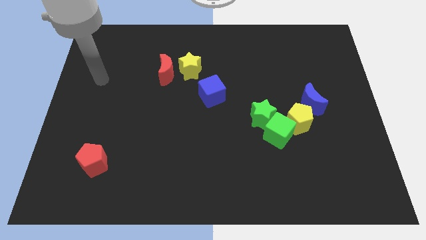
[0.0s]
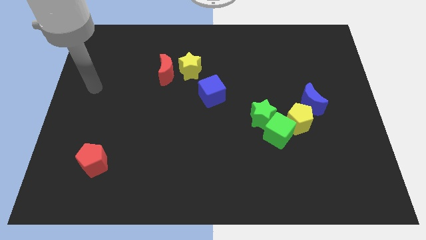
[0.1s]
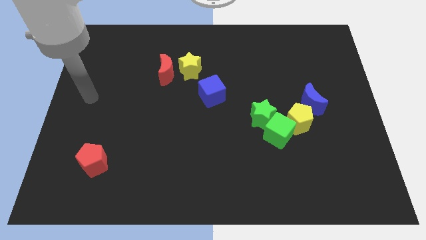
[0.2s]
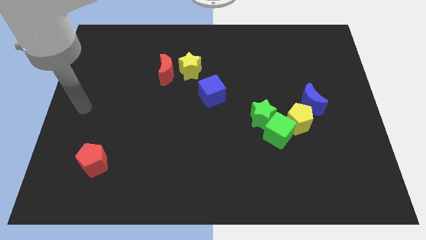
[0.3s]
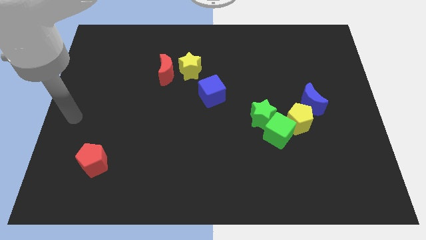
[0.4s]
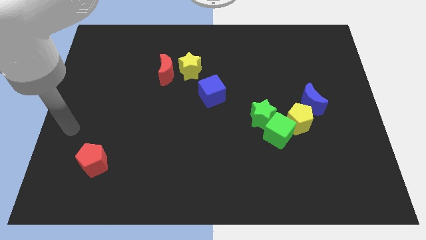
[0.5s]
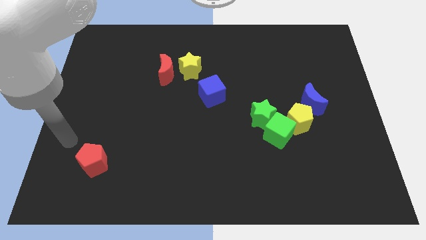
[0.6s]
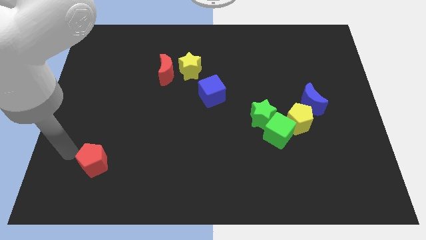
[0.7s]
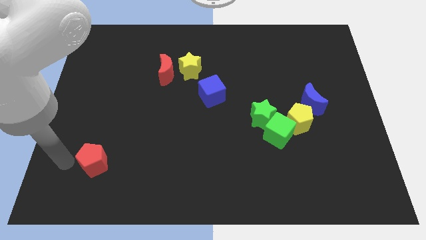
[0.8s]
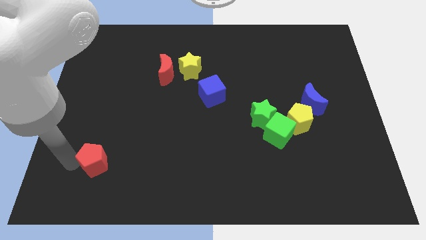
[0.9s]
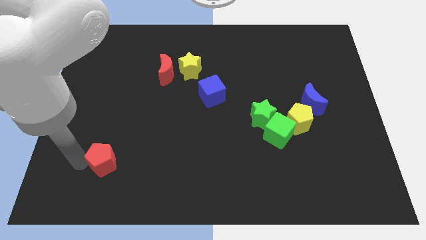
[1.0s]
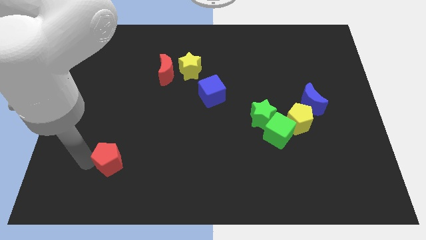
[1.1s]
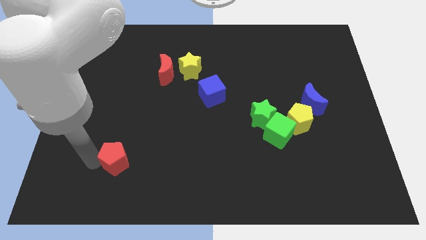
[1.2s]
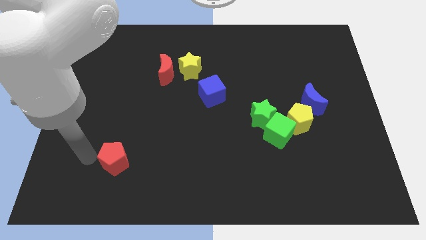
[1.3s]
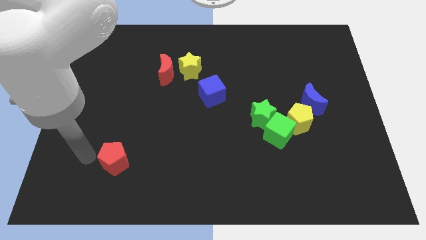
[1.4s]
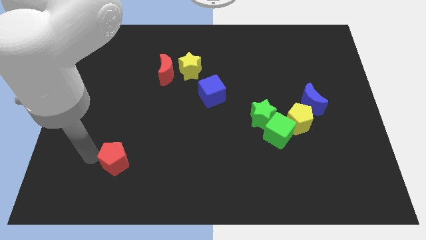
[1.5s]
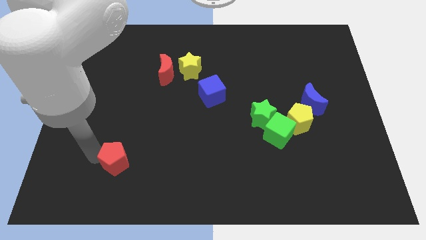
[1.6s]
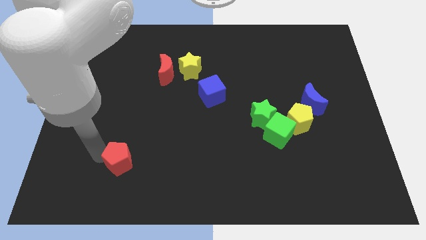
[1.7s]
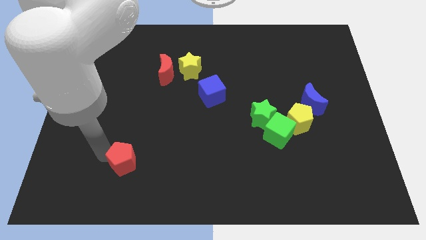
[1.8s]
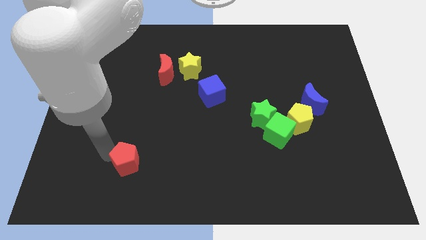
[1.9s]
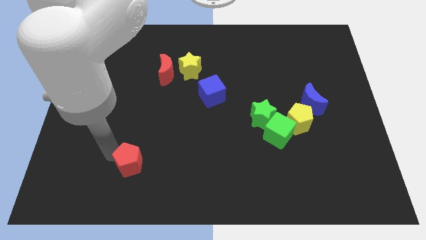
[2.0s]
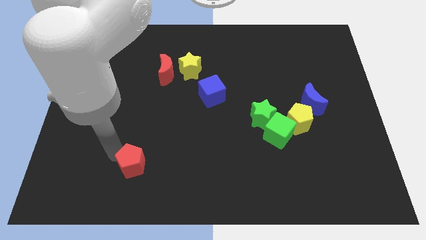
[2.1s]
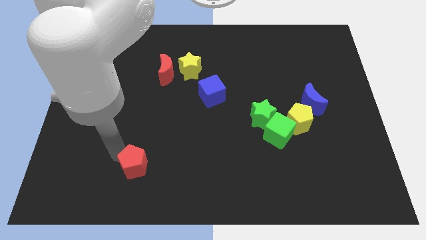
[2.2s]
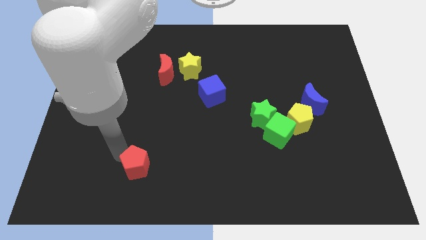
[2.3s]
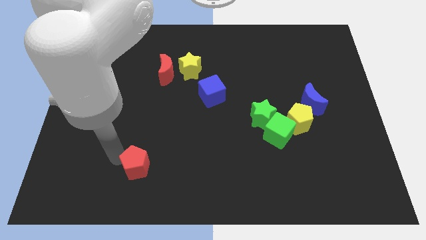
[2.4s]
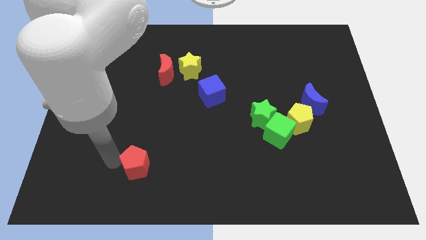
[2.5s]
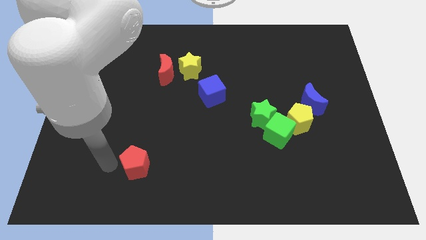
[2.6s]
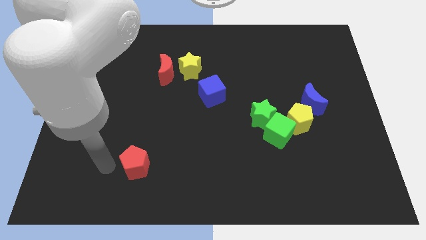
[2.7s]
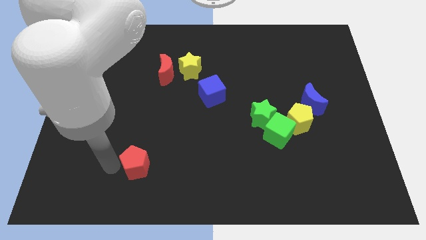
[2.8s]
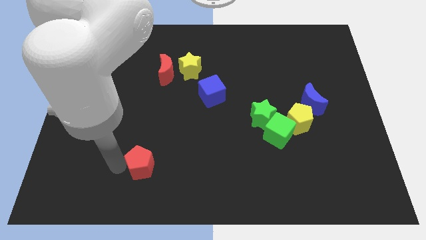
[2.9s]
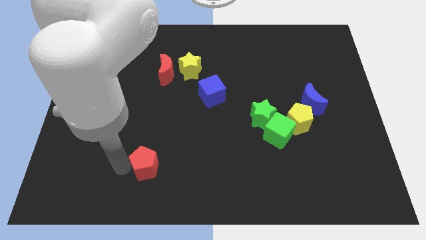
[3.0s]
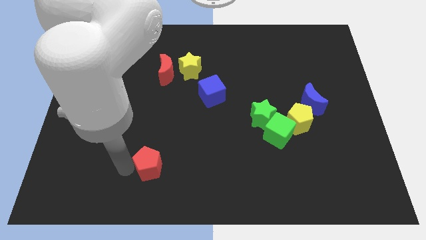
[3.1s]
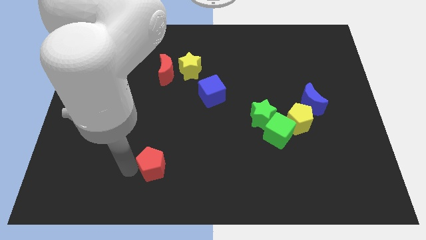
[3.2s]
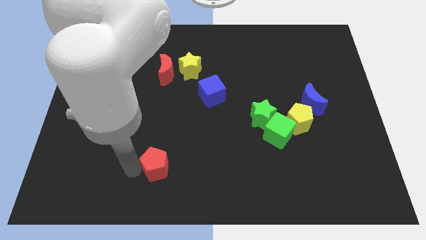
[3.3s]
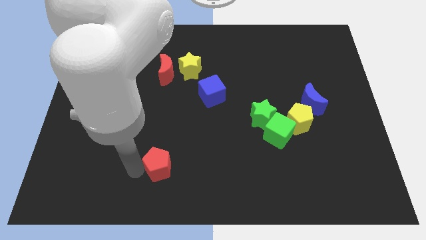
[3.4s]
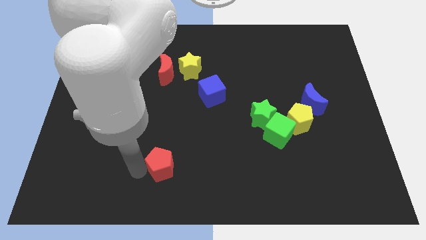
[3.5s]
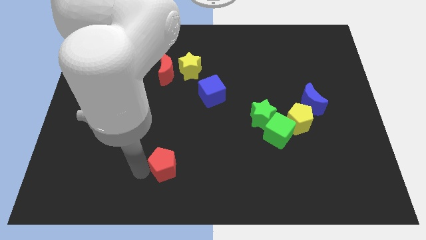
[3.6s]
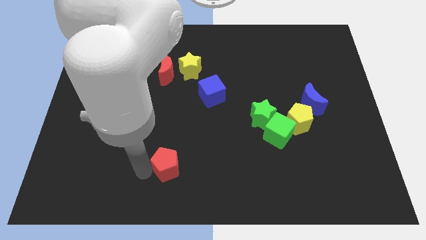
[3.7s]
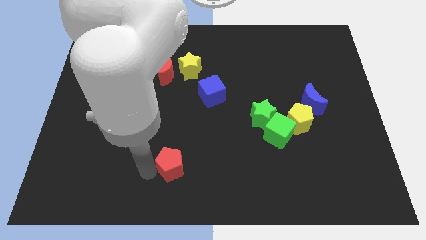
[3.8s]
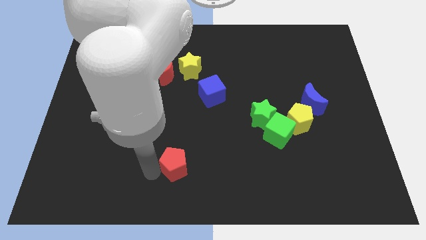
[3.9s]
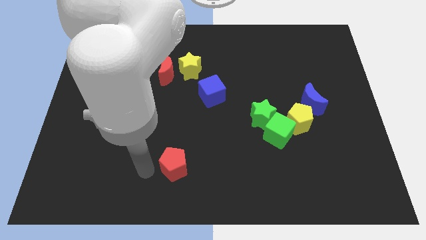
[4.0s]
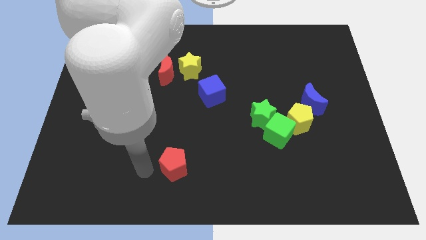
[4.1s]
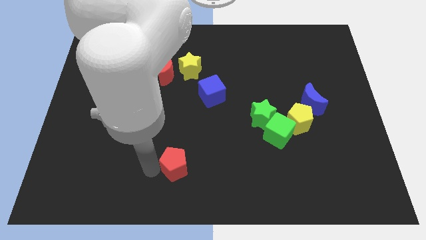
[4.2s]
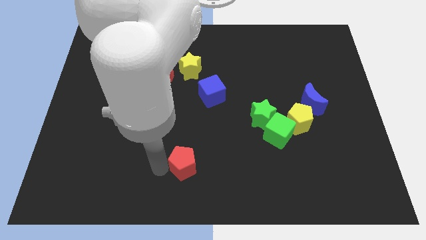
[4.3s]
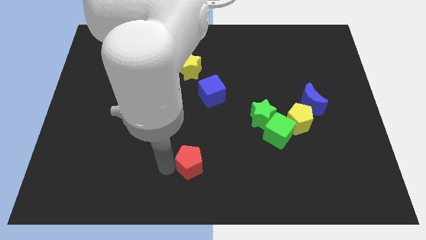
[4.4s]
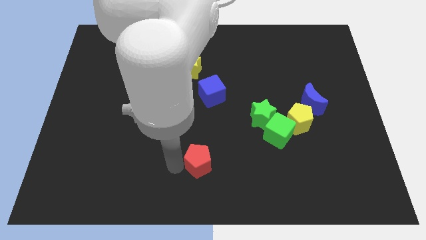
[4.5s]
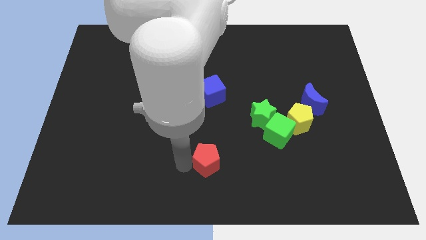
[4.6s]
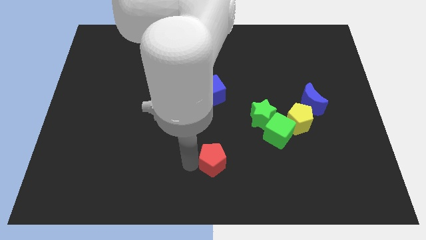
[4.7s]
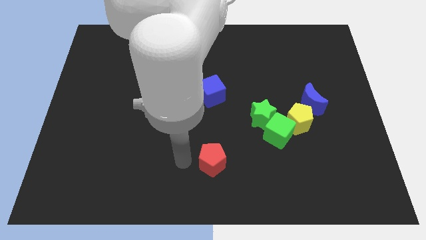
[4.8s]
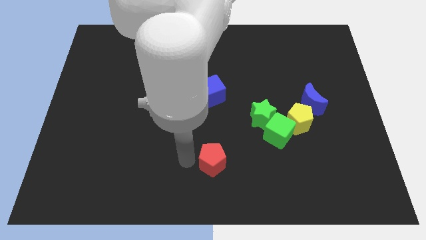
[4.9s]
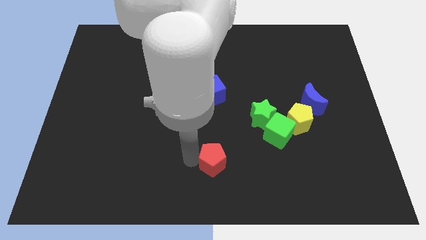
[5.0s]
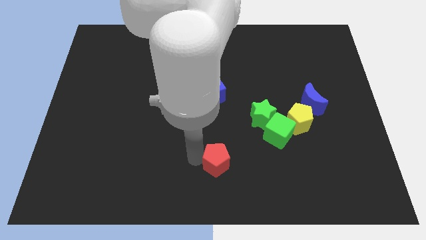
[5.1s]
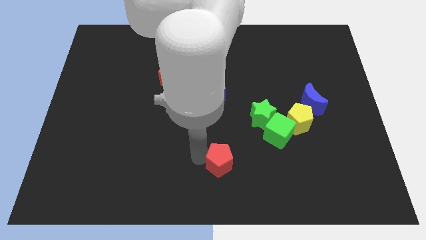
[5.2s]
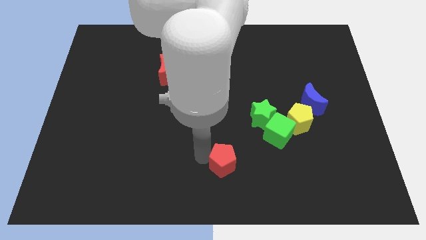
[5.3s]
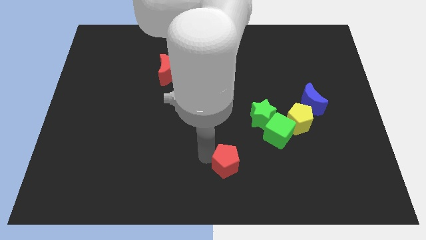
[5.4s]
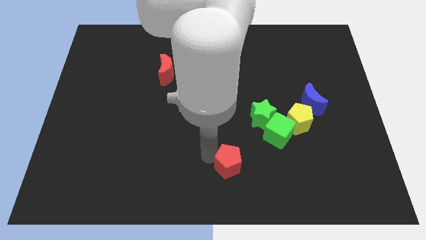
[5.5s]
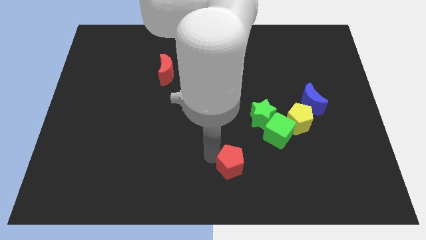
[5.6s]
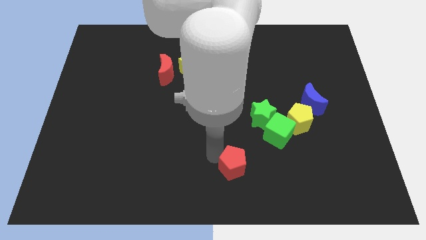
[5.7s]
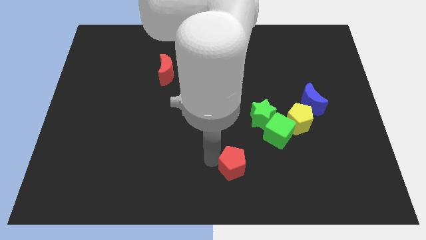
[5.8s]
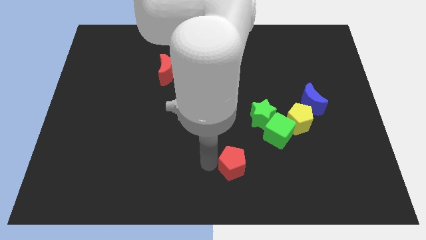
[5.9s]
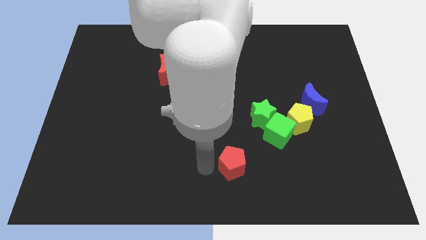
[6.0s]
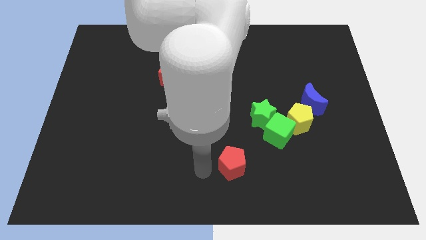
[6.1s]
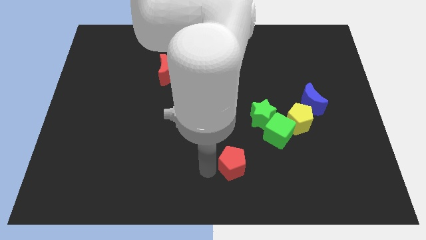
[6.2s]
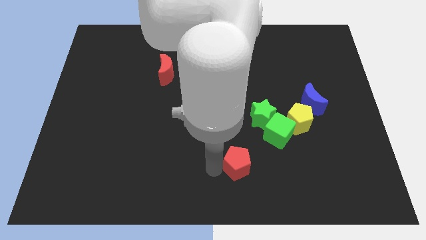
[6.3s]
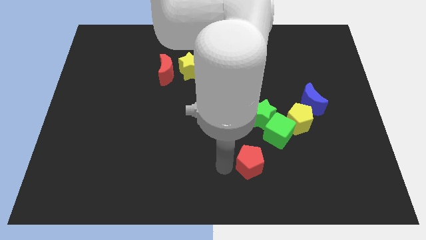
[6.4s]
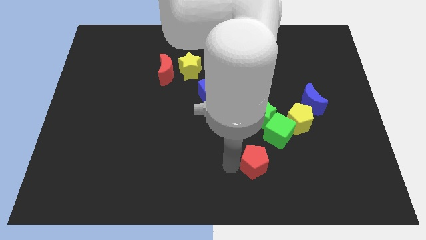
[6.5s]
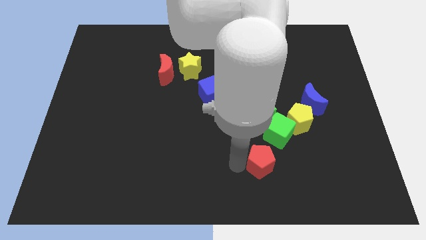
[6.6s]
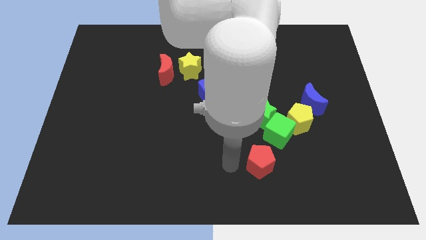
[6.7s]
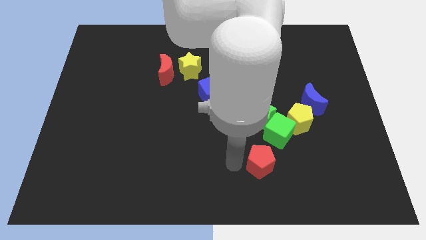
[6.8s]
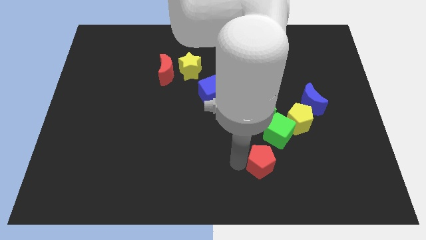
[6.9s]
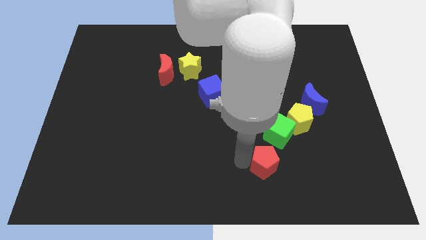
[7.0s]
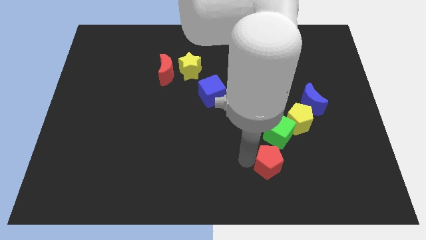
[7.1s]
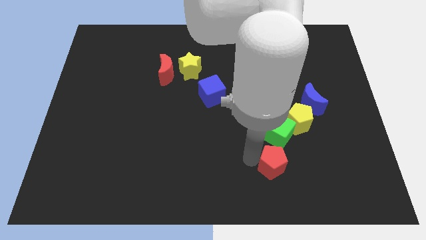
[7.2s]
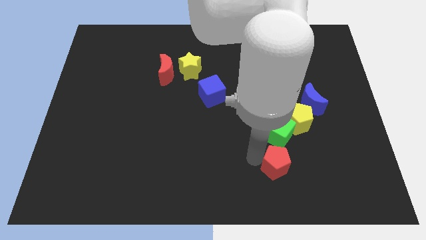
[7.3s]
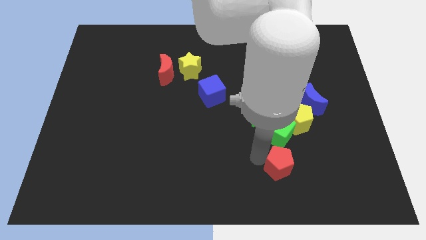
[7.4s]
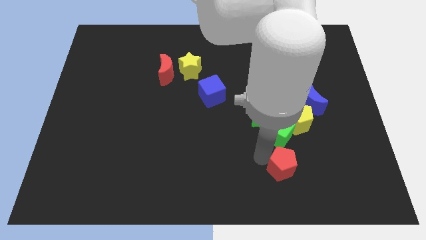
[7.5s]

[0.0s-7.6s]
move the red pentagon to the bottom of the yellow pentagon
